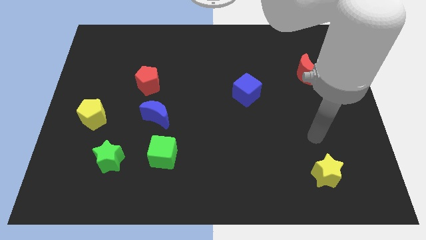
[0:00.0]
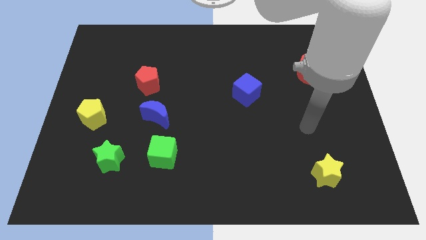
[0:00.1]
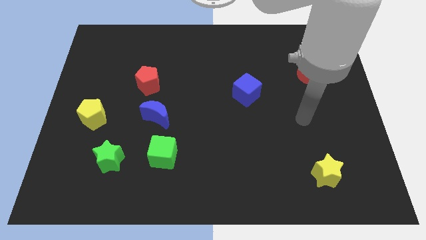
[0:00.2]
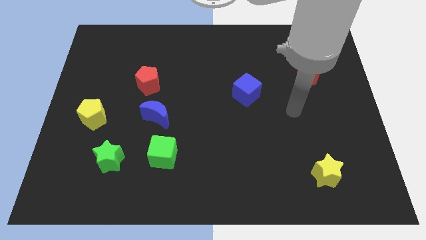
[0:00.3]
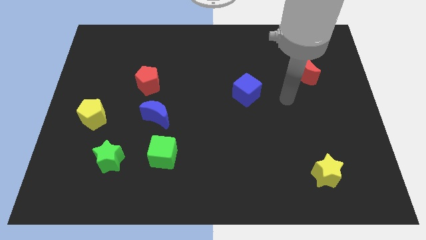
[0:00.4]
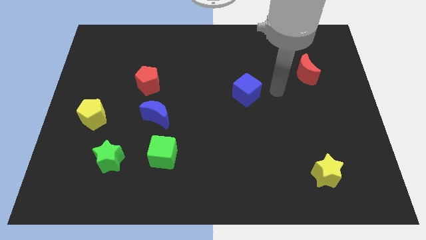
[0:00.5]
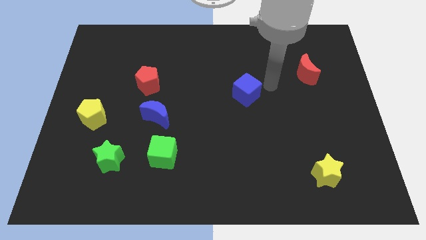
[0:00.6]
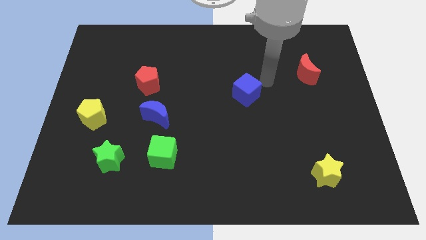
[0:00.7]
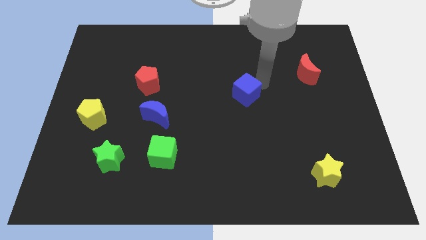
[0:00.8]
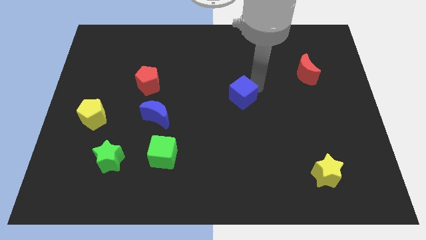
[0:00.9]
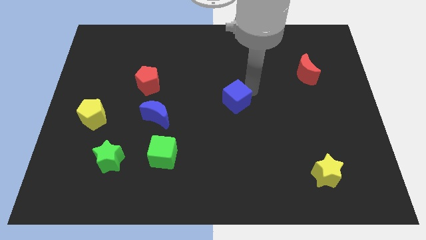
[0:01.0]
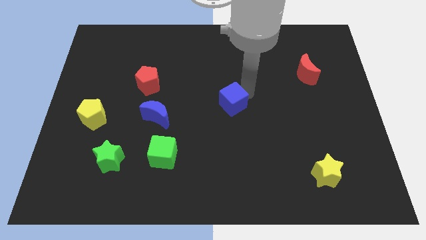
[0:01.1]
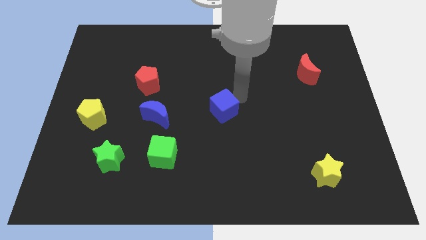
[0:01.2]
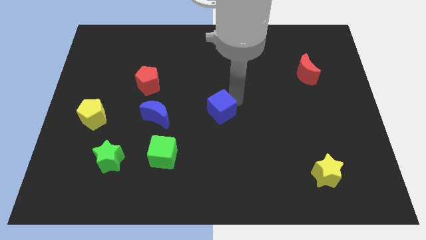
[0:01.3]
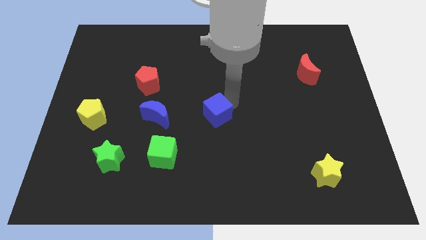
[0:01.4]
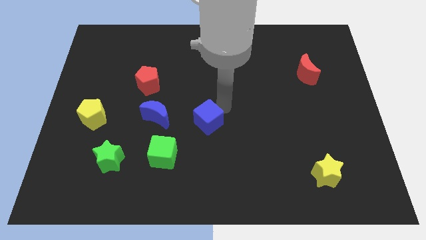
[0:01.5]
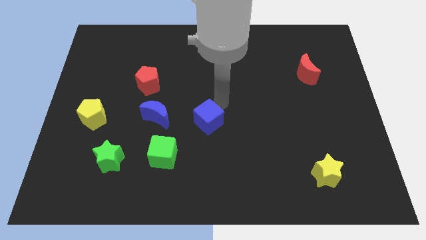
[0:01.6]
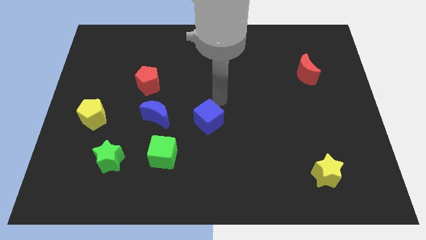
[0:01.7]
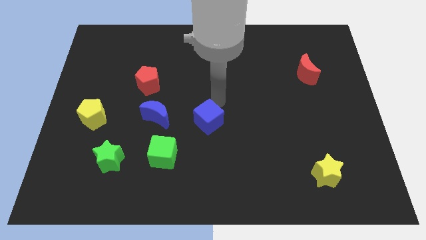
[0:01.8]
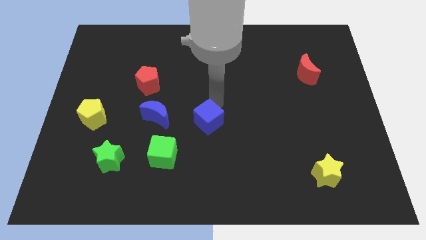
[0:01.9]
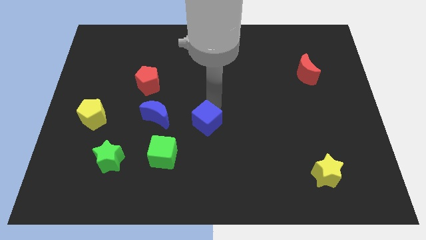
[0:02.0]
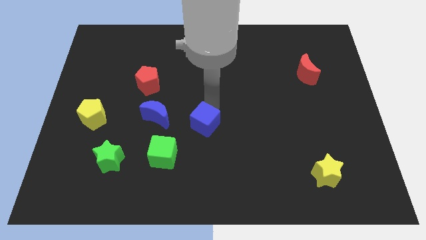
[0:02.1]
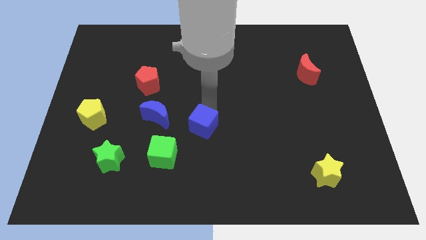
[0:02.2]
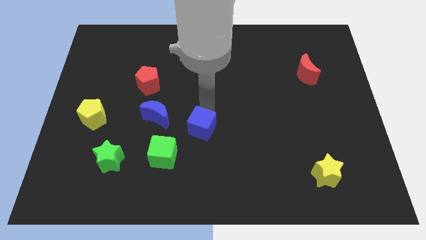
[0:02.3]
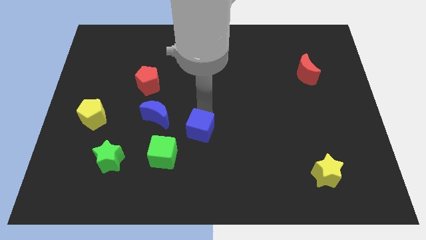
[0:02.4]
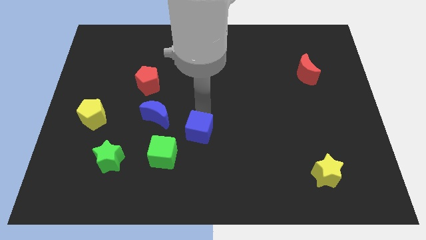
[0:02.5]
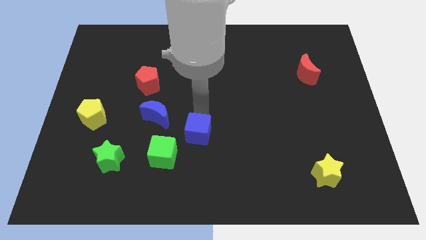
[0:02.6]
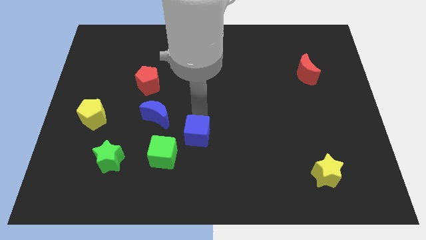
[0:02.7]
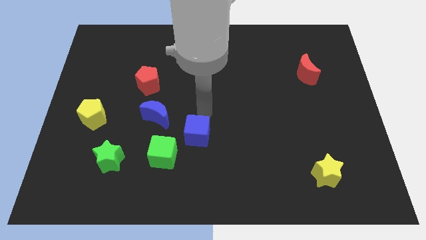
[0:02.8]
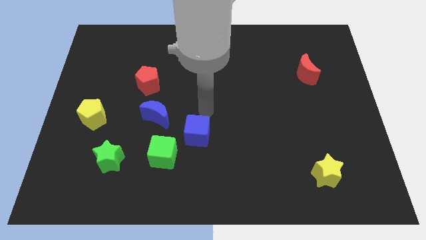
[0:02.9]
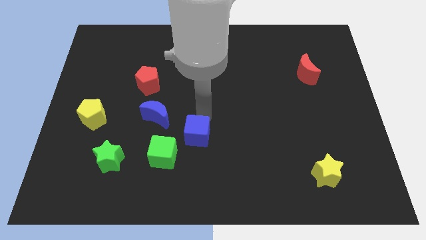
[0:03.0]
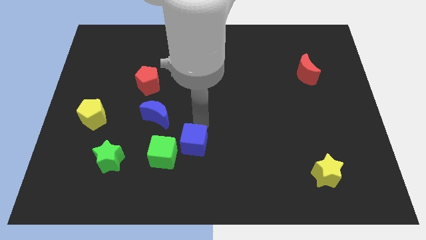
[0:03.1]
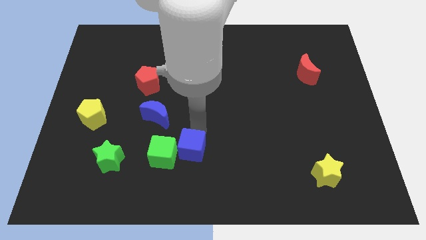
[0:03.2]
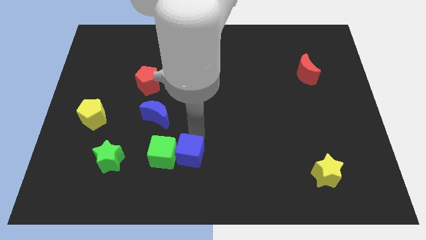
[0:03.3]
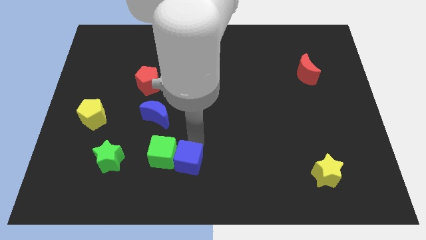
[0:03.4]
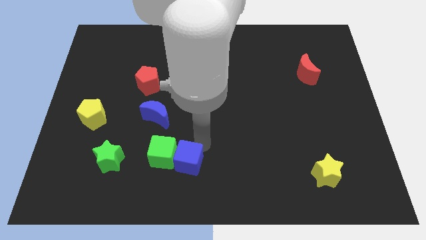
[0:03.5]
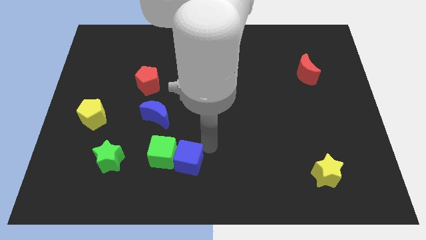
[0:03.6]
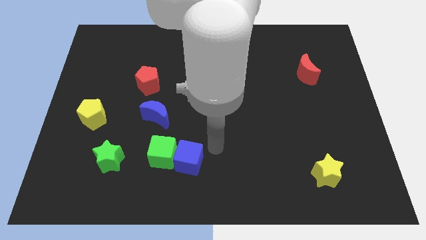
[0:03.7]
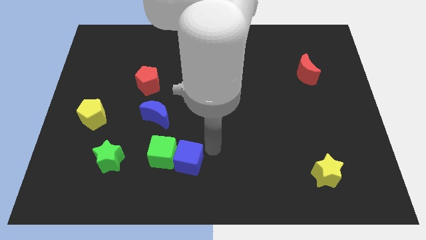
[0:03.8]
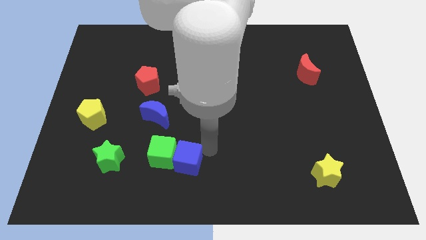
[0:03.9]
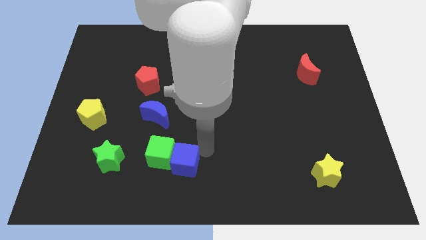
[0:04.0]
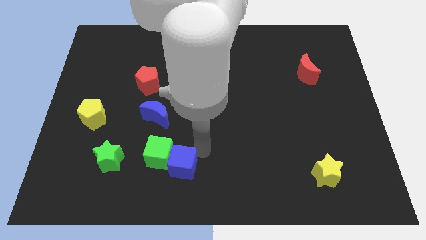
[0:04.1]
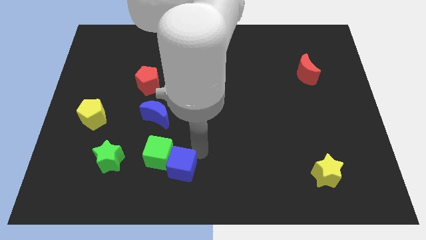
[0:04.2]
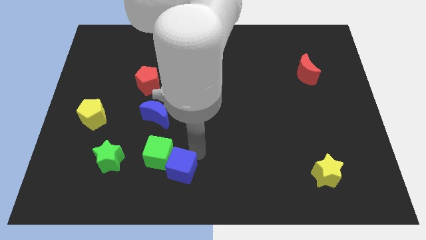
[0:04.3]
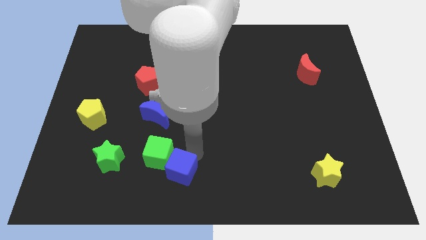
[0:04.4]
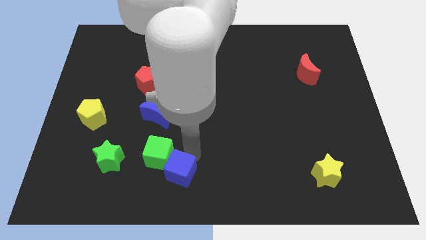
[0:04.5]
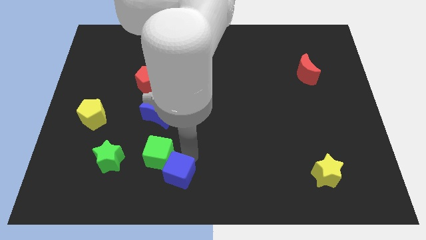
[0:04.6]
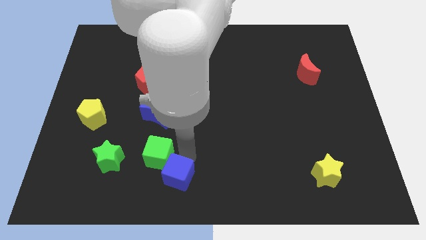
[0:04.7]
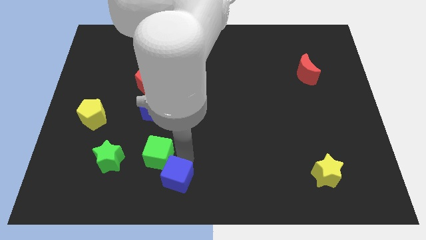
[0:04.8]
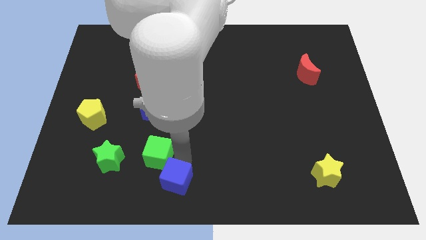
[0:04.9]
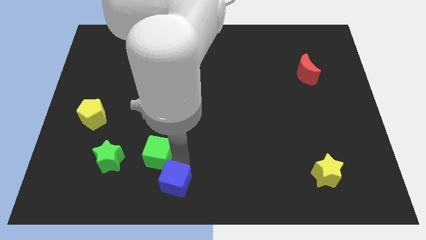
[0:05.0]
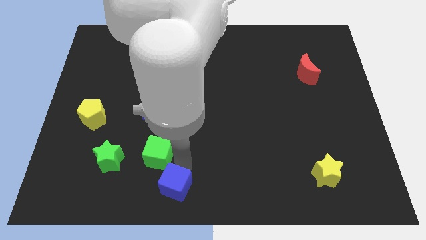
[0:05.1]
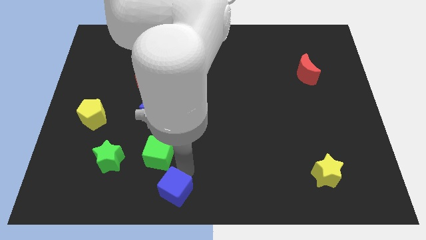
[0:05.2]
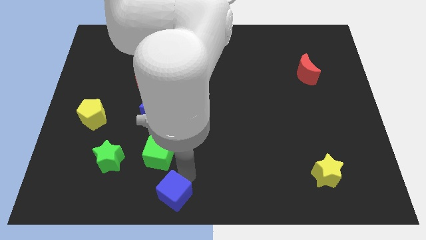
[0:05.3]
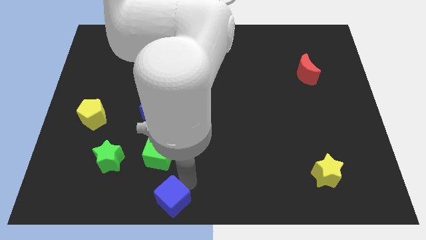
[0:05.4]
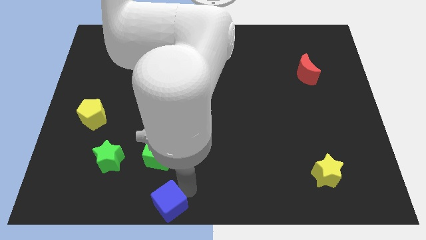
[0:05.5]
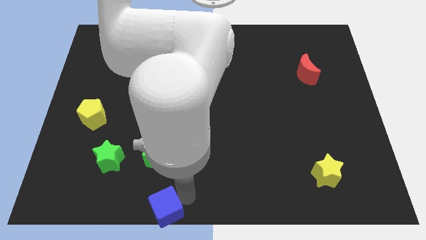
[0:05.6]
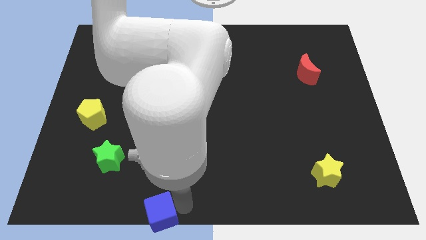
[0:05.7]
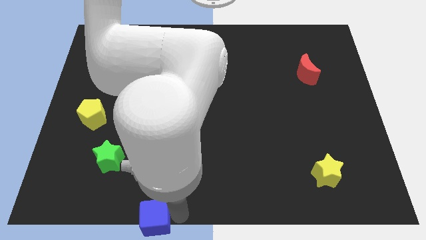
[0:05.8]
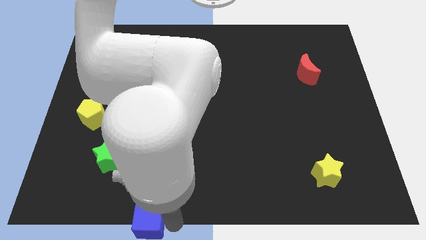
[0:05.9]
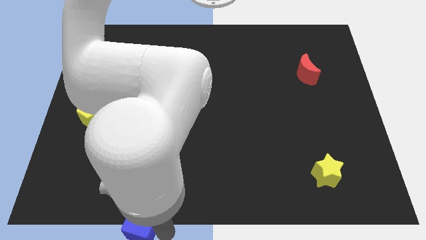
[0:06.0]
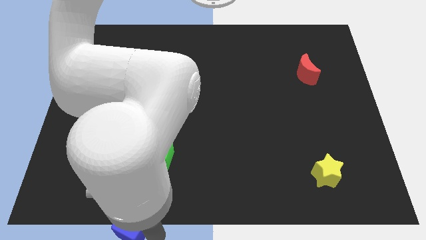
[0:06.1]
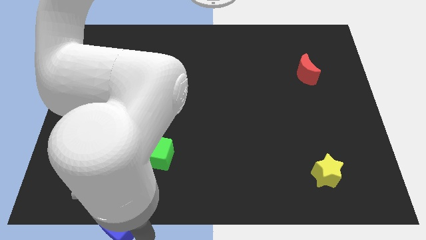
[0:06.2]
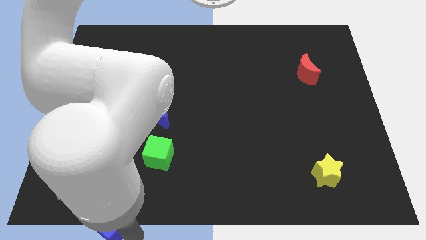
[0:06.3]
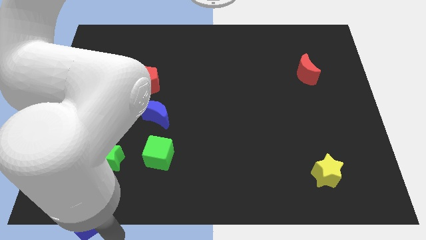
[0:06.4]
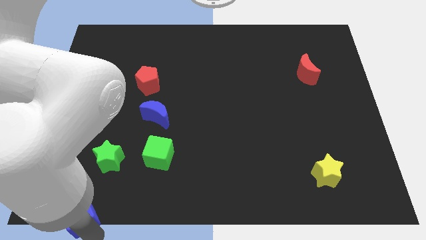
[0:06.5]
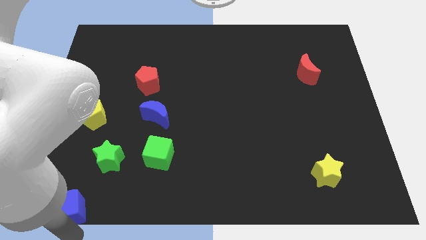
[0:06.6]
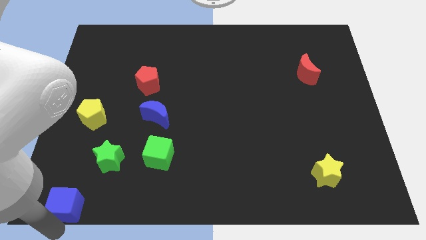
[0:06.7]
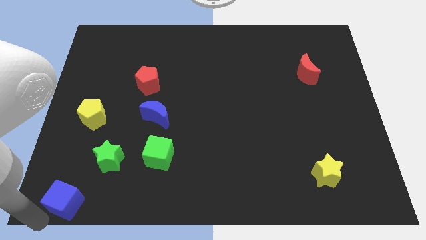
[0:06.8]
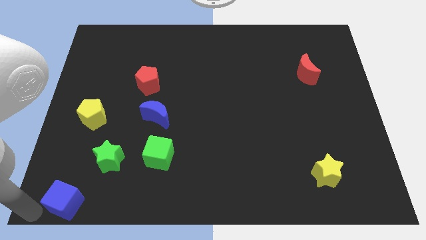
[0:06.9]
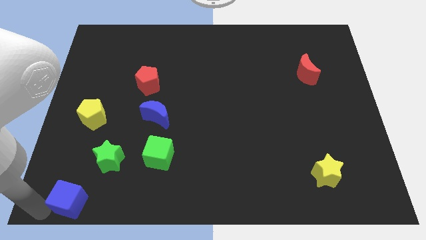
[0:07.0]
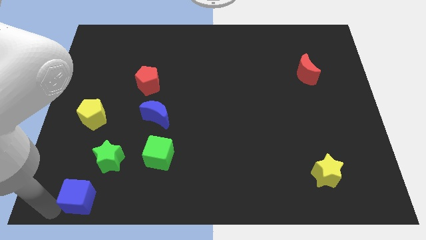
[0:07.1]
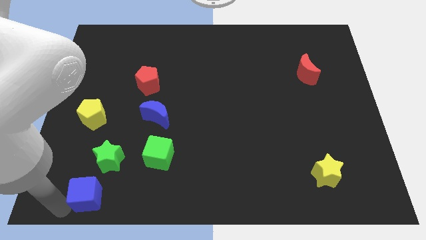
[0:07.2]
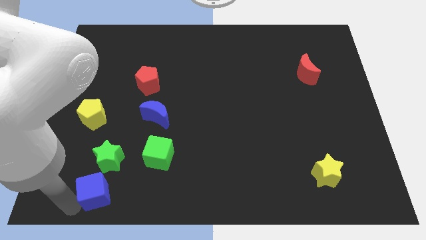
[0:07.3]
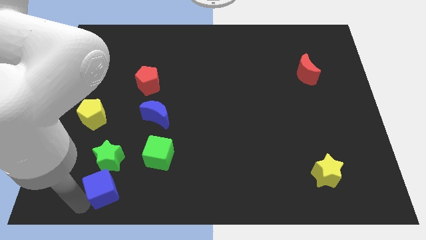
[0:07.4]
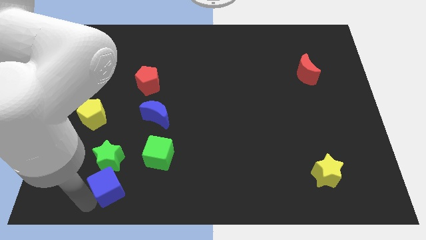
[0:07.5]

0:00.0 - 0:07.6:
slide the blue cube to the bottom left of the green cube
